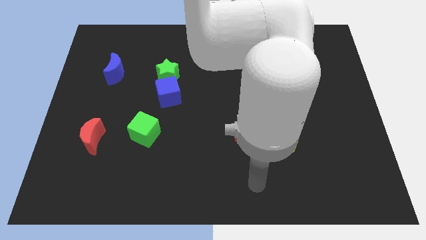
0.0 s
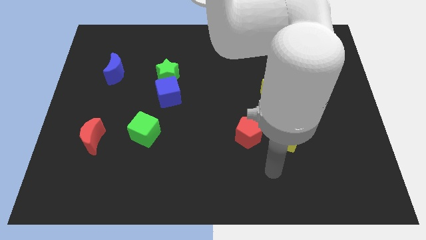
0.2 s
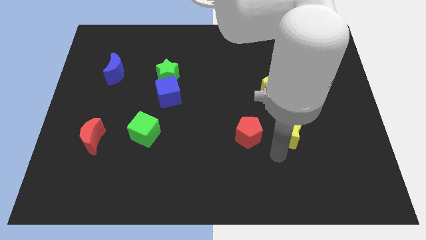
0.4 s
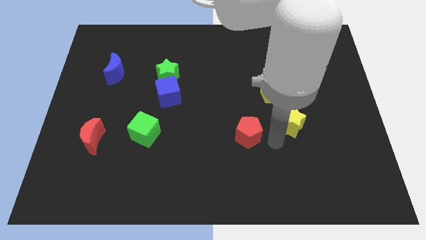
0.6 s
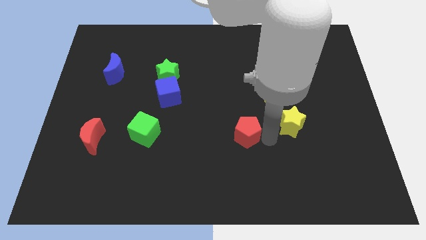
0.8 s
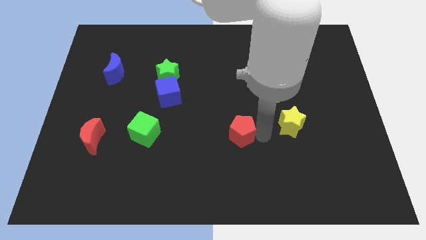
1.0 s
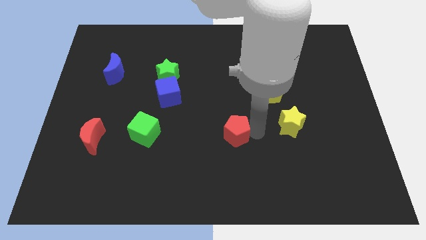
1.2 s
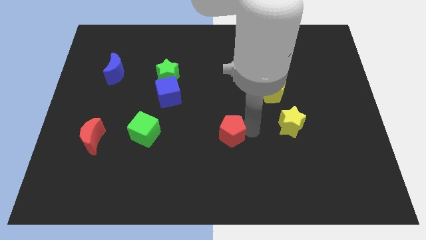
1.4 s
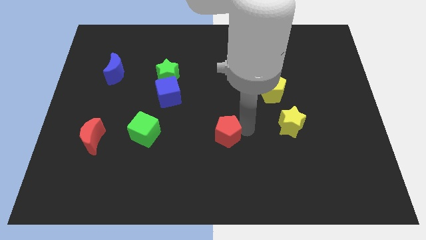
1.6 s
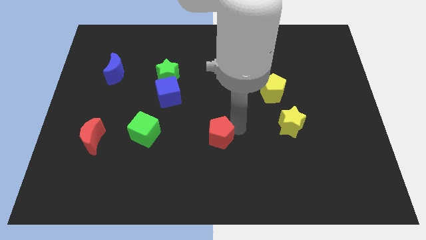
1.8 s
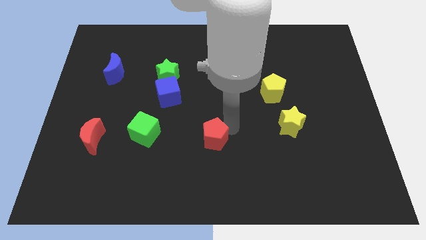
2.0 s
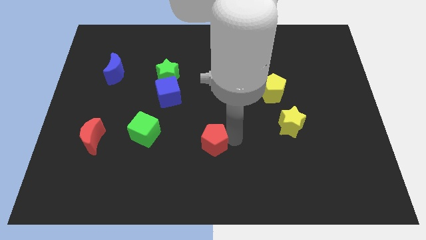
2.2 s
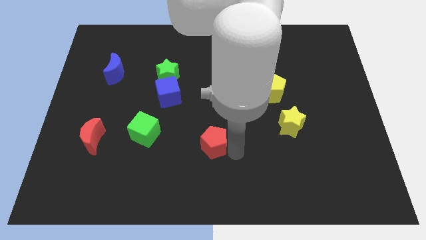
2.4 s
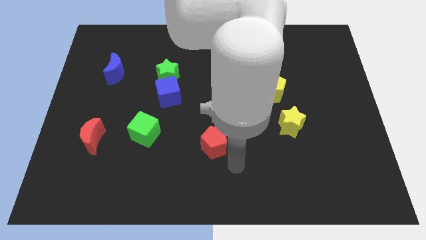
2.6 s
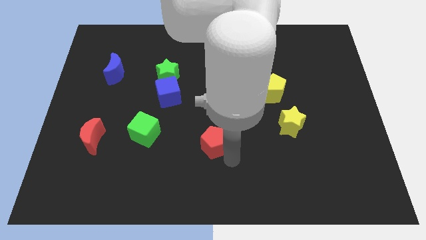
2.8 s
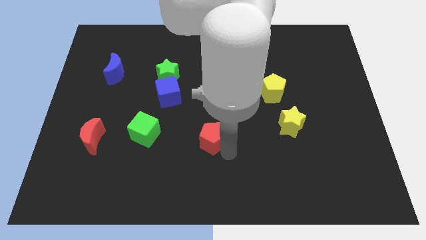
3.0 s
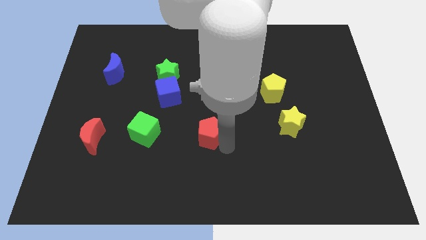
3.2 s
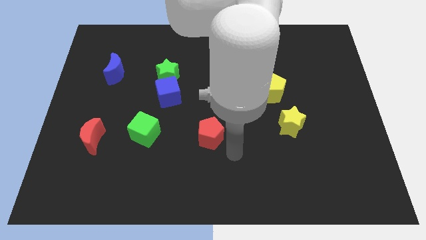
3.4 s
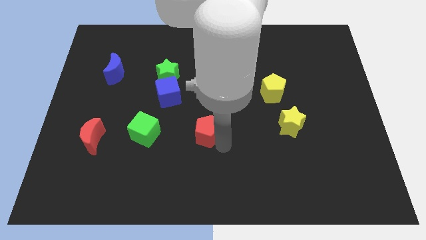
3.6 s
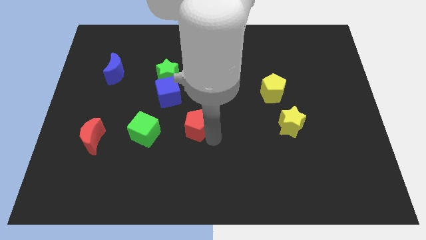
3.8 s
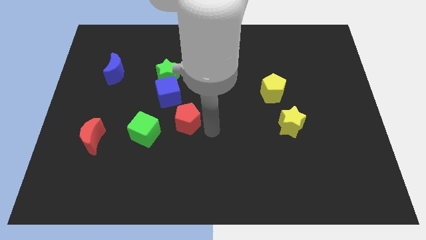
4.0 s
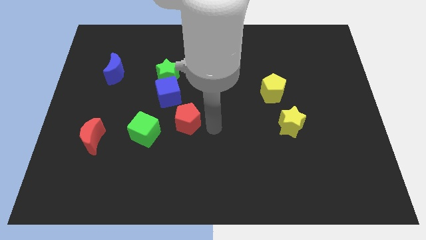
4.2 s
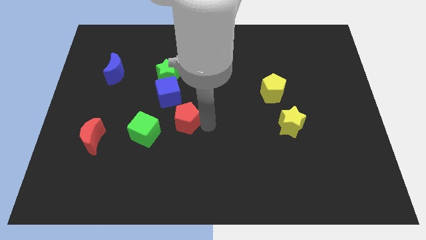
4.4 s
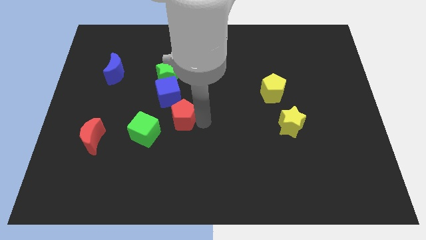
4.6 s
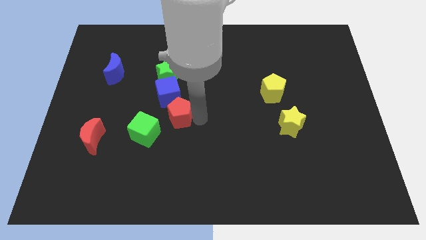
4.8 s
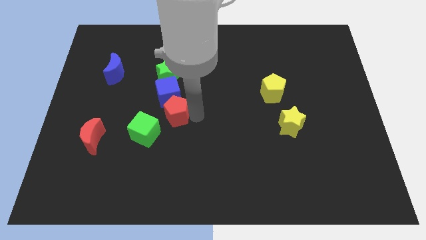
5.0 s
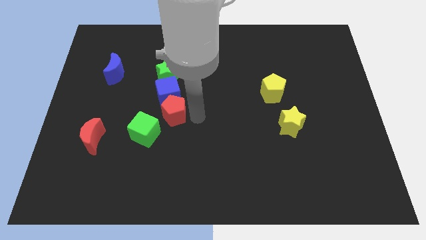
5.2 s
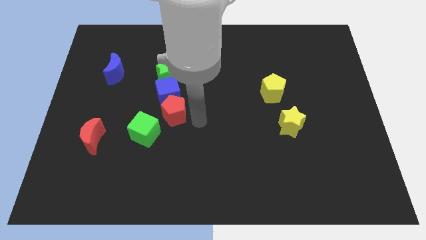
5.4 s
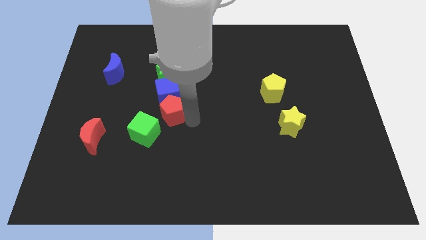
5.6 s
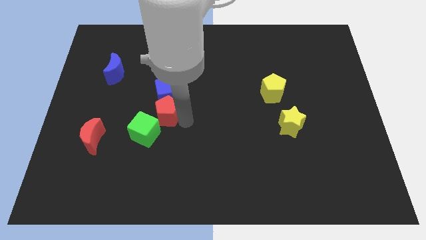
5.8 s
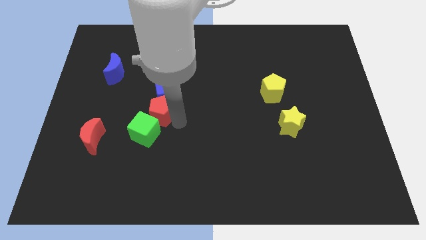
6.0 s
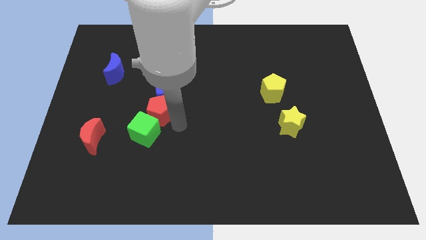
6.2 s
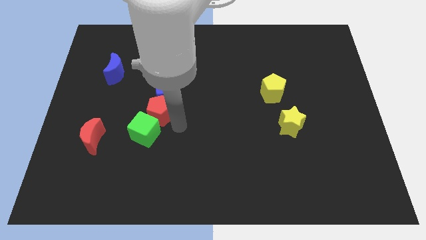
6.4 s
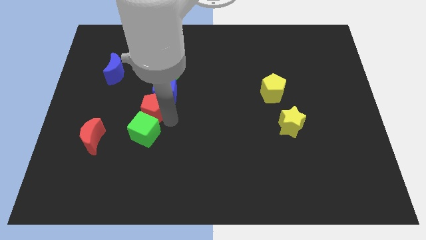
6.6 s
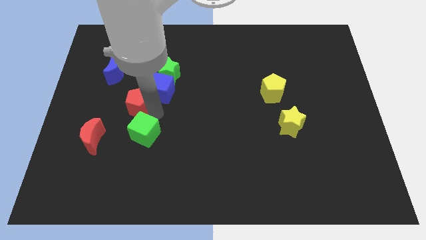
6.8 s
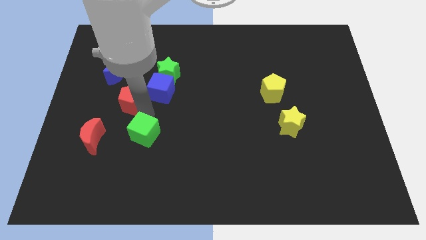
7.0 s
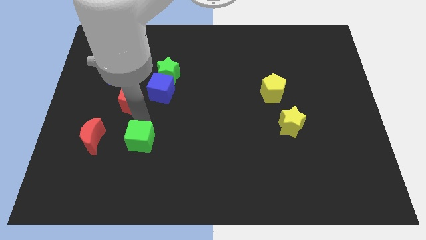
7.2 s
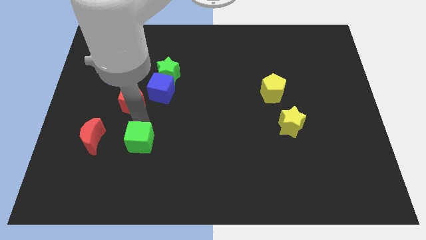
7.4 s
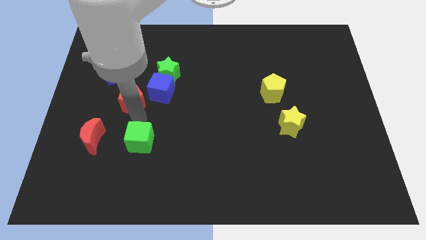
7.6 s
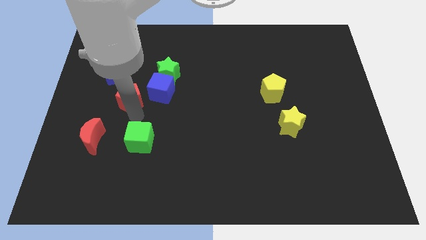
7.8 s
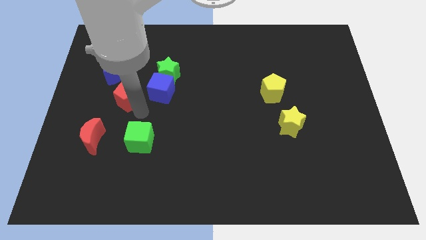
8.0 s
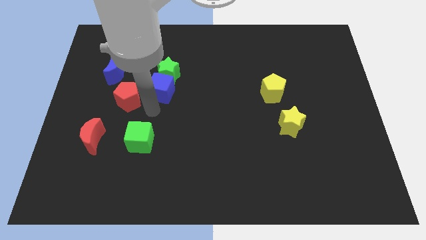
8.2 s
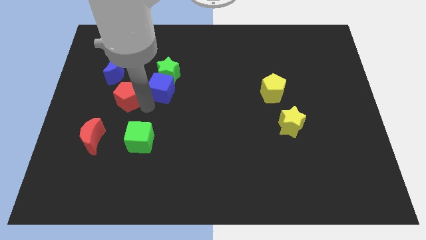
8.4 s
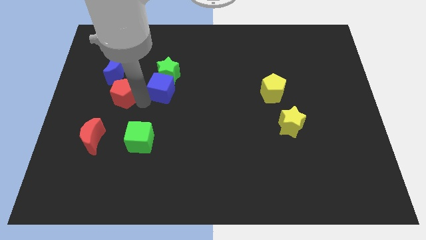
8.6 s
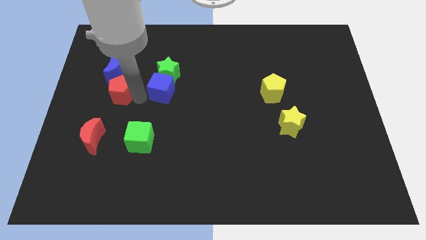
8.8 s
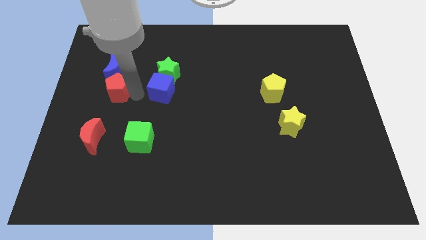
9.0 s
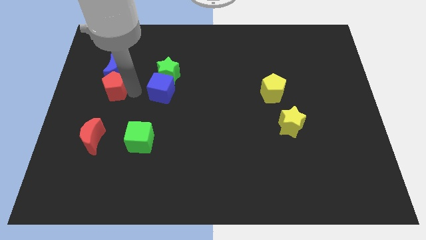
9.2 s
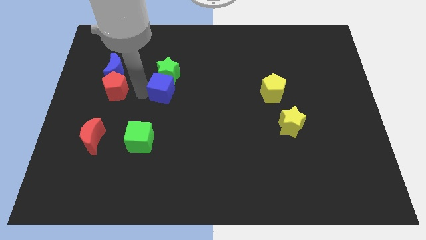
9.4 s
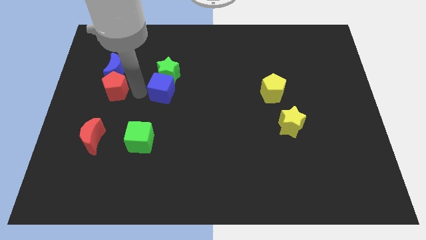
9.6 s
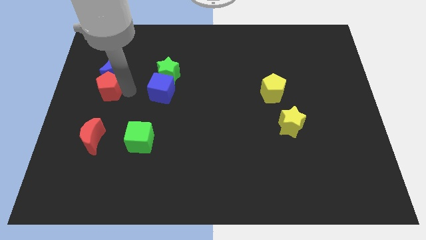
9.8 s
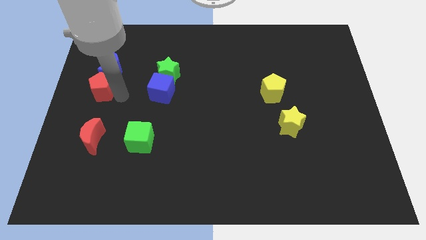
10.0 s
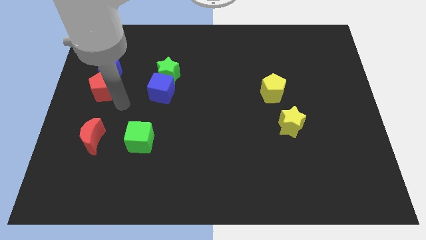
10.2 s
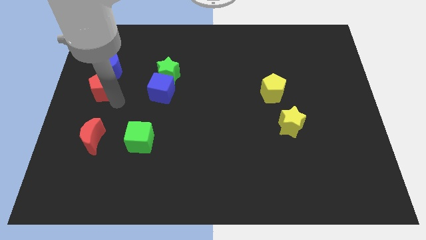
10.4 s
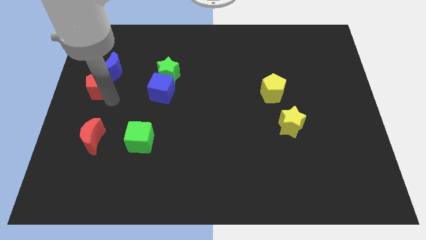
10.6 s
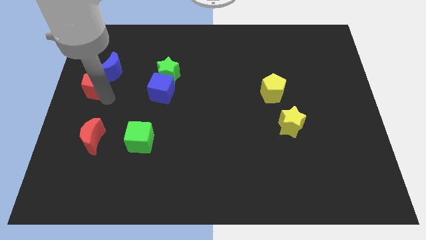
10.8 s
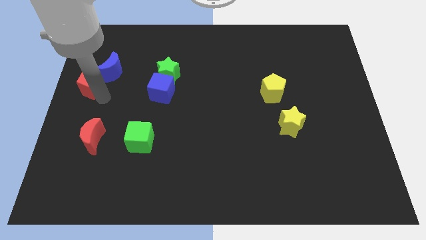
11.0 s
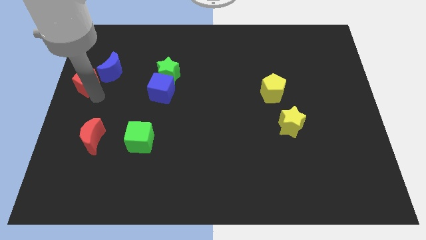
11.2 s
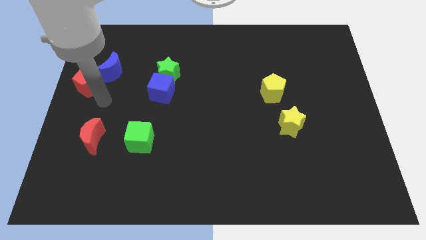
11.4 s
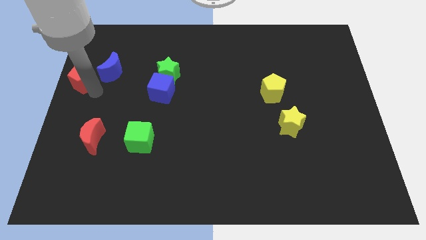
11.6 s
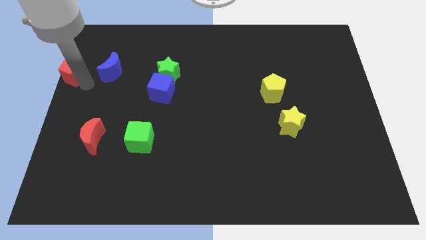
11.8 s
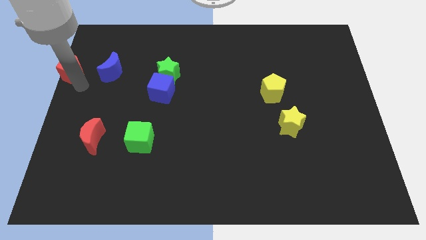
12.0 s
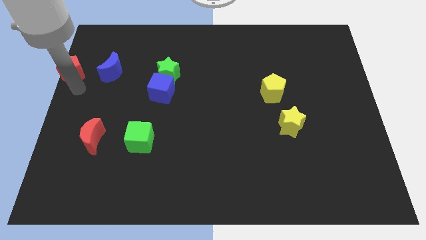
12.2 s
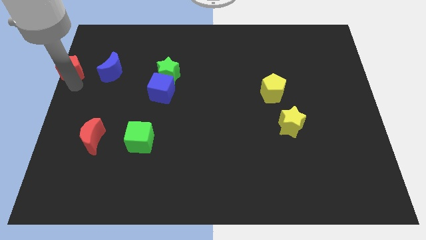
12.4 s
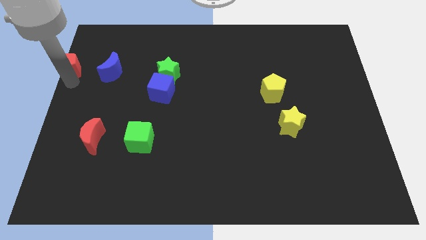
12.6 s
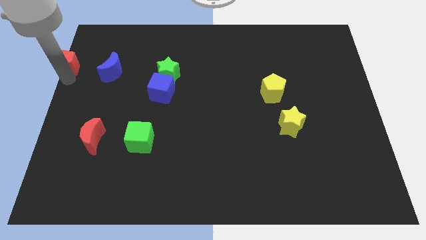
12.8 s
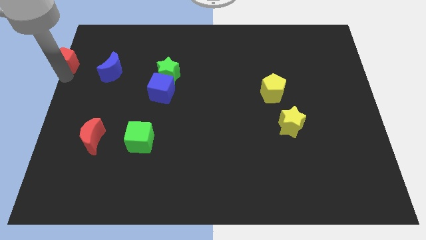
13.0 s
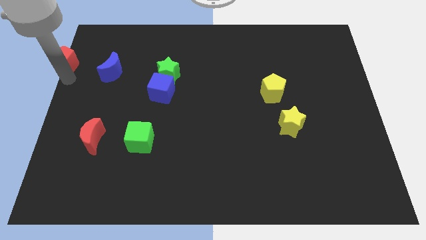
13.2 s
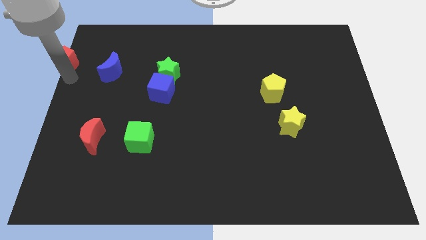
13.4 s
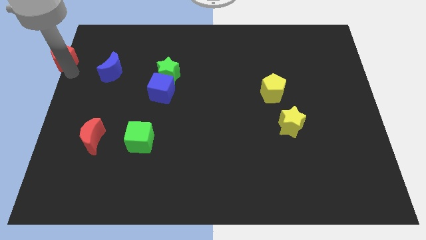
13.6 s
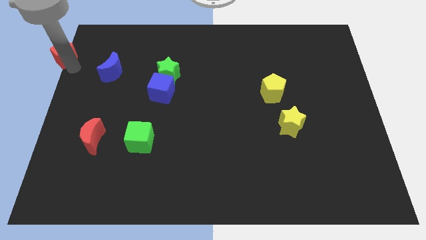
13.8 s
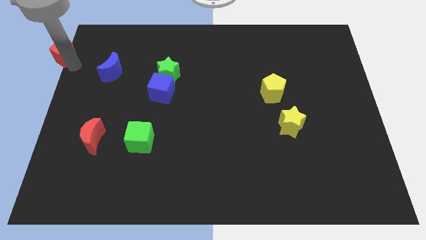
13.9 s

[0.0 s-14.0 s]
push the red pentagon to the top left

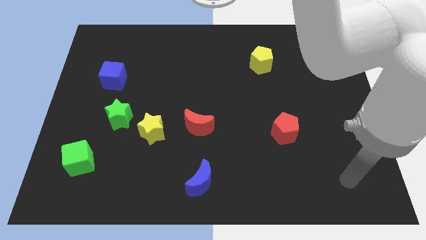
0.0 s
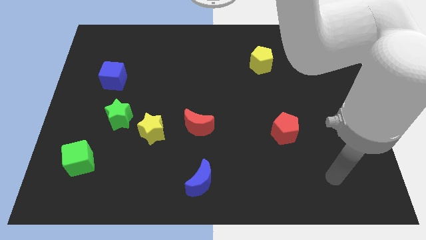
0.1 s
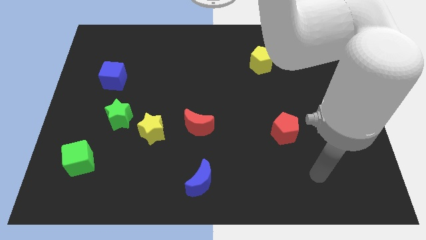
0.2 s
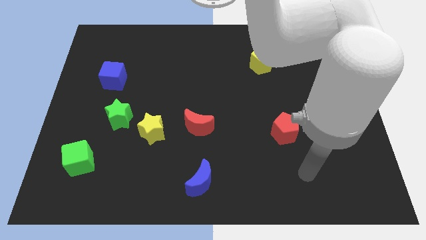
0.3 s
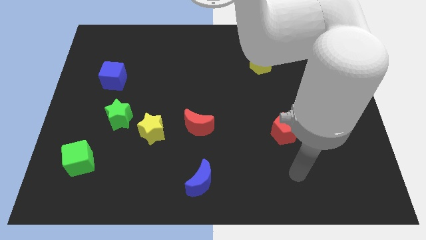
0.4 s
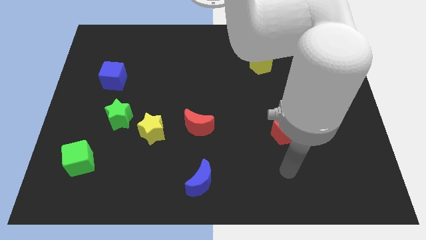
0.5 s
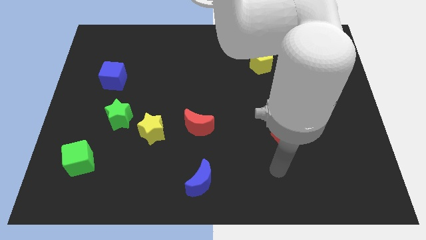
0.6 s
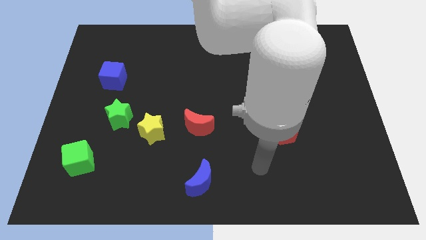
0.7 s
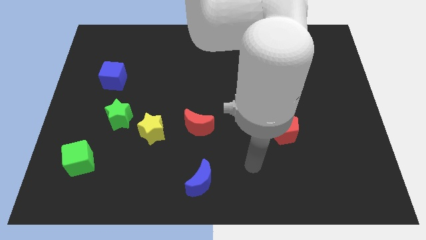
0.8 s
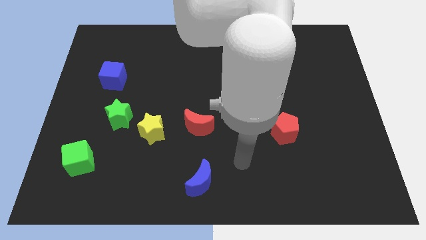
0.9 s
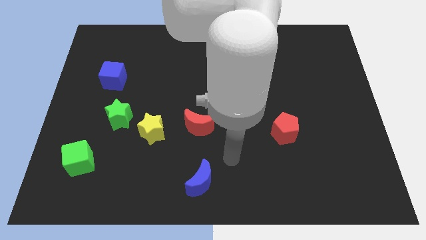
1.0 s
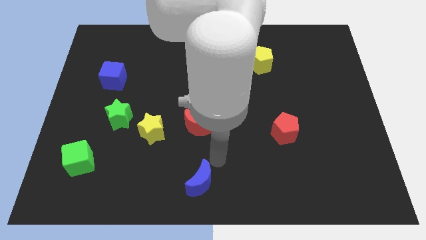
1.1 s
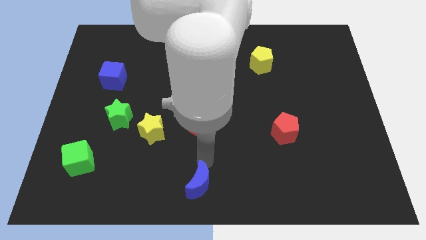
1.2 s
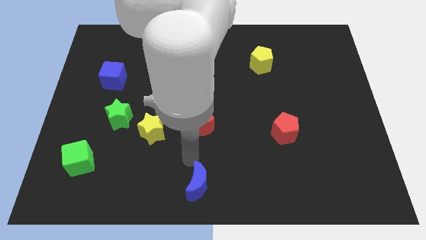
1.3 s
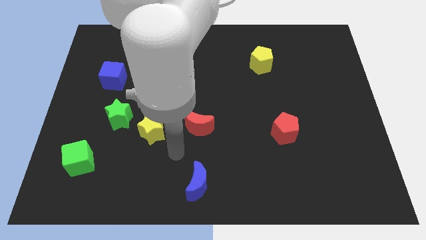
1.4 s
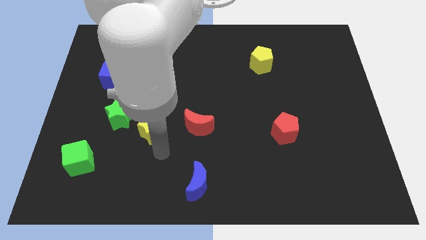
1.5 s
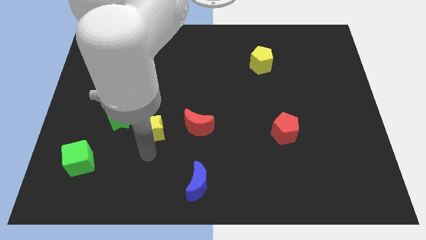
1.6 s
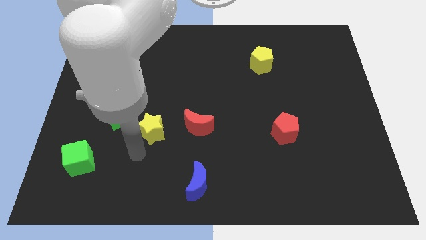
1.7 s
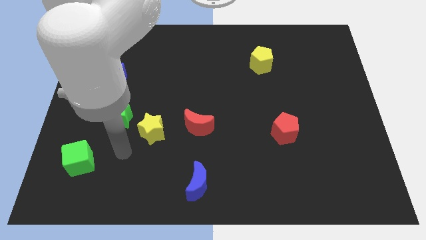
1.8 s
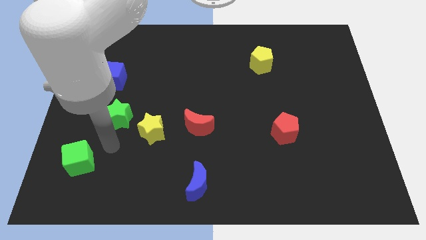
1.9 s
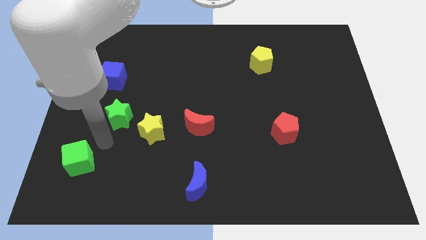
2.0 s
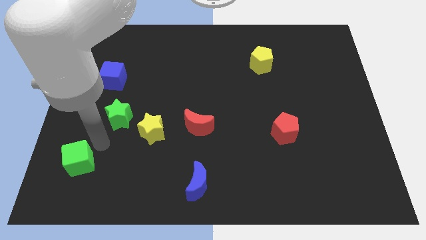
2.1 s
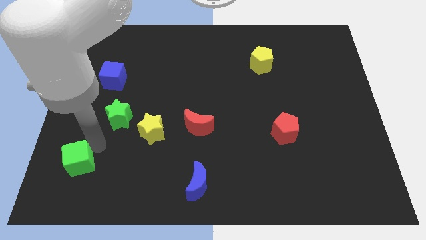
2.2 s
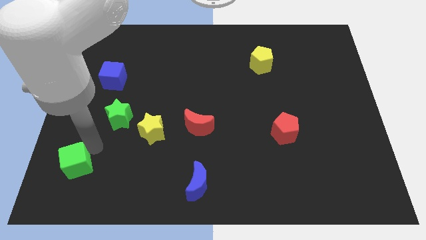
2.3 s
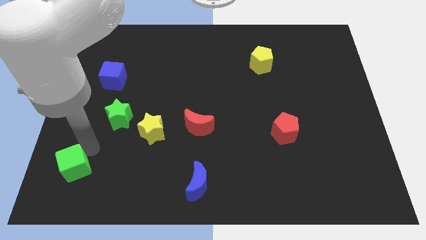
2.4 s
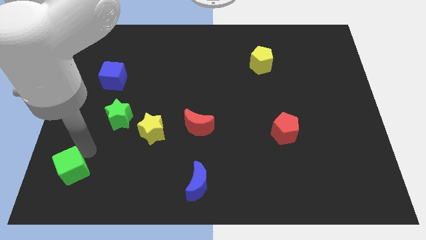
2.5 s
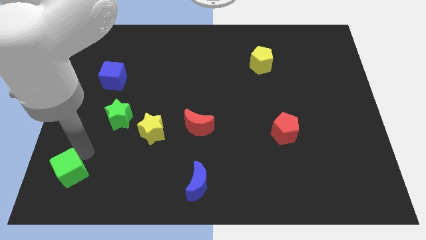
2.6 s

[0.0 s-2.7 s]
move the green cube to the bottom left of the board
